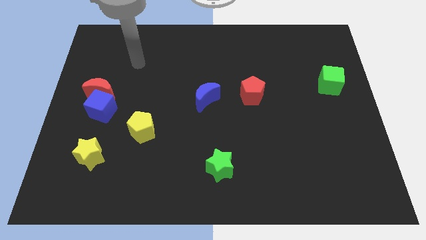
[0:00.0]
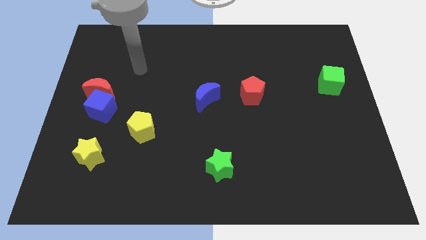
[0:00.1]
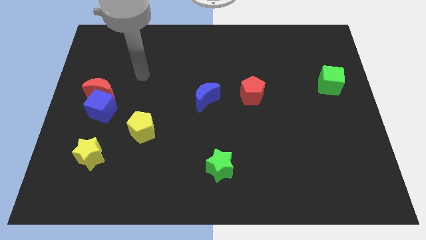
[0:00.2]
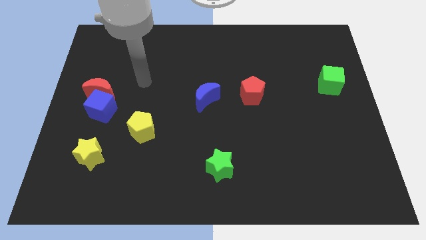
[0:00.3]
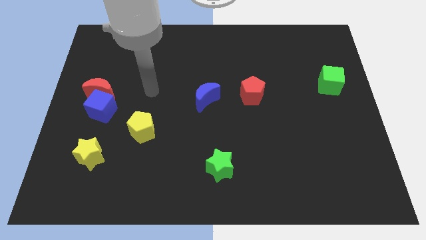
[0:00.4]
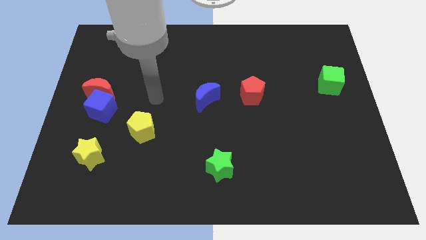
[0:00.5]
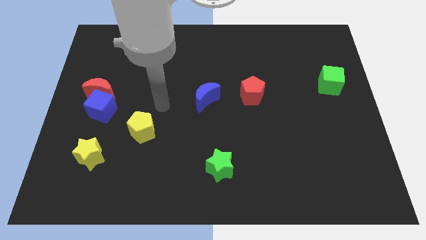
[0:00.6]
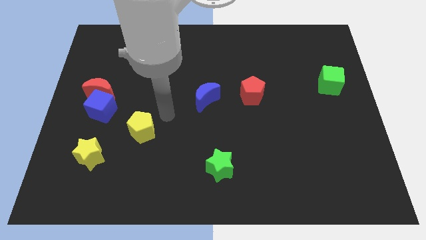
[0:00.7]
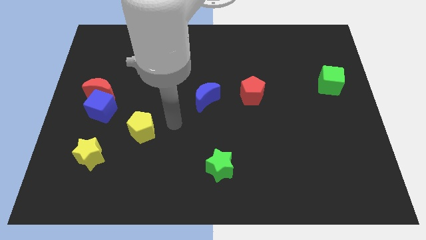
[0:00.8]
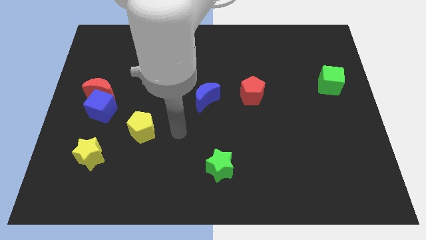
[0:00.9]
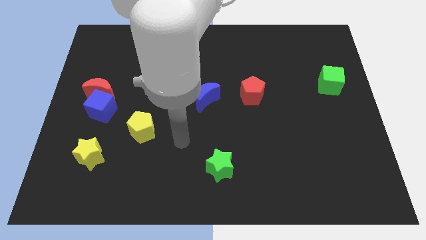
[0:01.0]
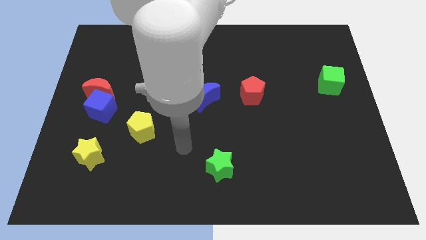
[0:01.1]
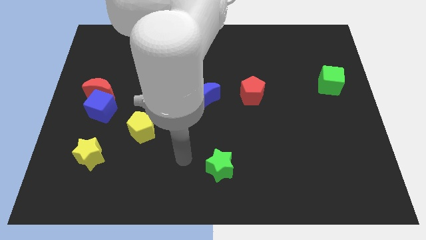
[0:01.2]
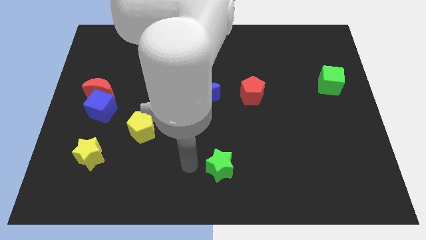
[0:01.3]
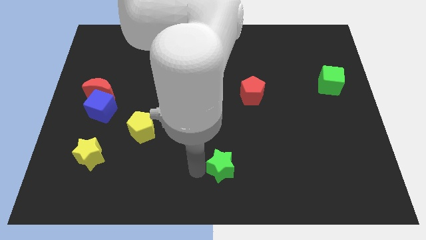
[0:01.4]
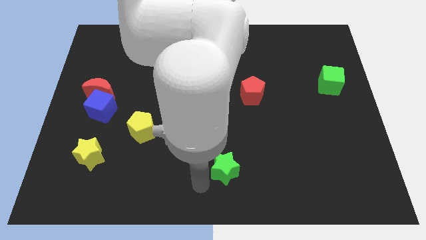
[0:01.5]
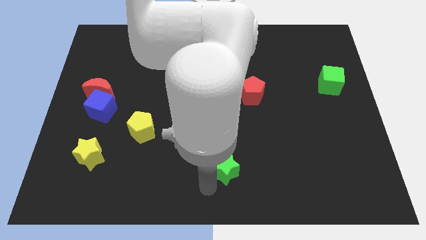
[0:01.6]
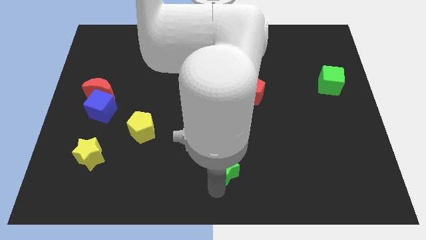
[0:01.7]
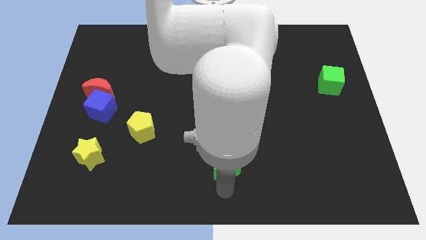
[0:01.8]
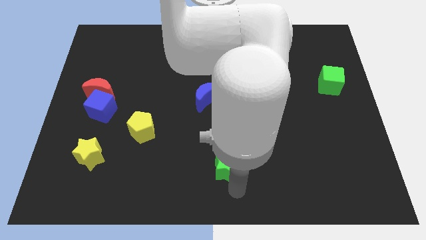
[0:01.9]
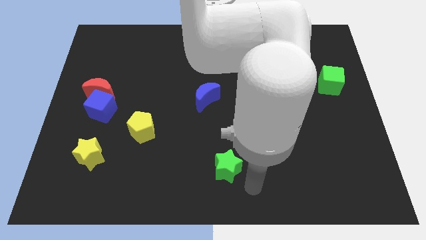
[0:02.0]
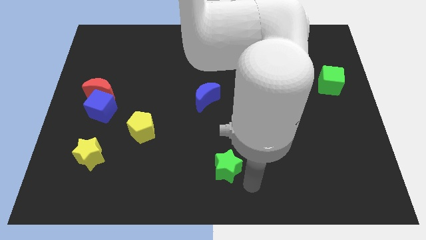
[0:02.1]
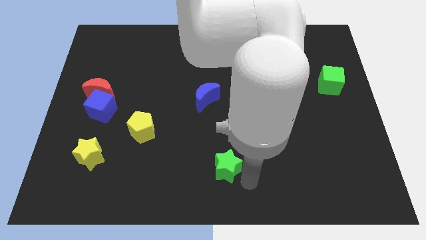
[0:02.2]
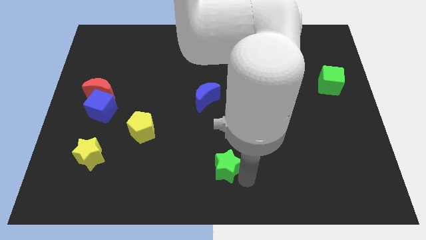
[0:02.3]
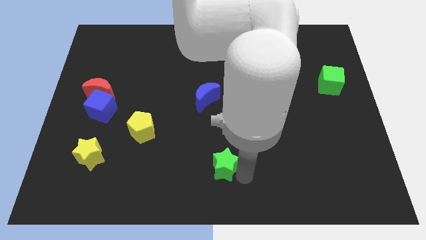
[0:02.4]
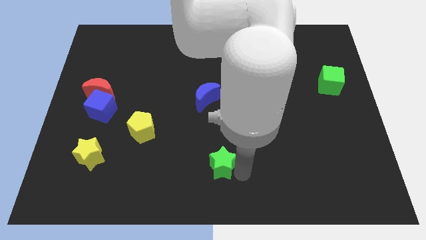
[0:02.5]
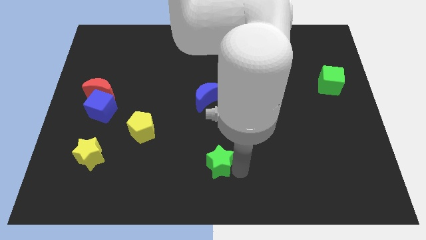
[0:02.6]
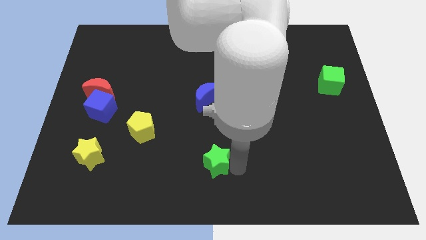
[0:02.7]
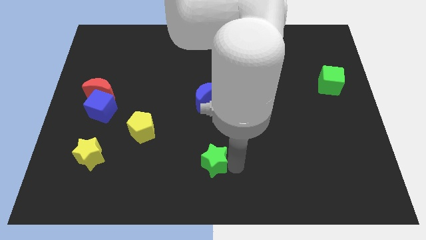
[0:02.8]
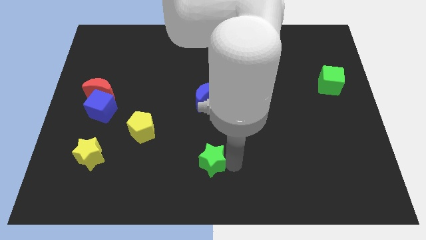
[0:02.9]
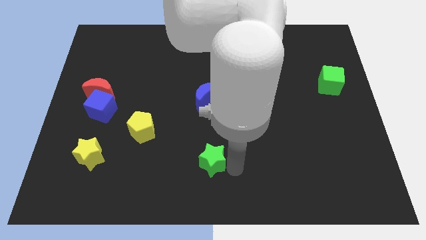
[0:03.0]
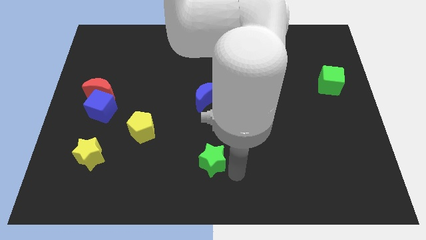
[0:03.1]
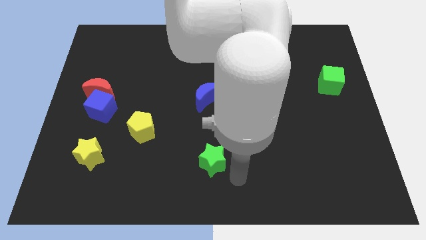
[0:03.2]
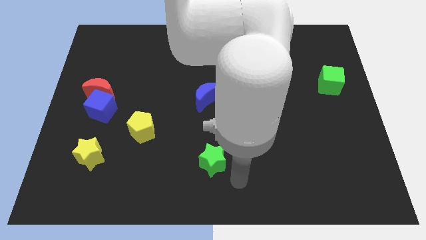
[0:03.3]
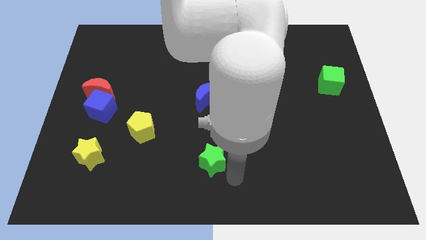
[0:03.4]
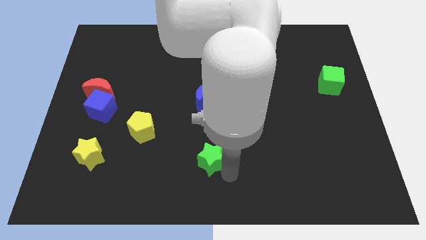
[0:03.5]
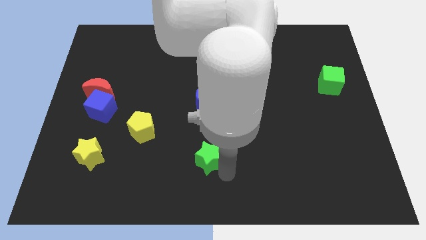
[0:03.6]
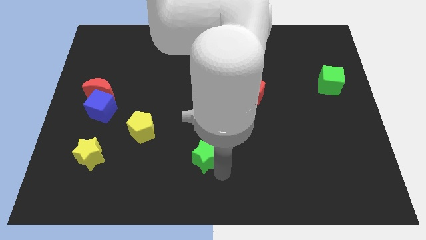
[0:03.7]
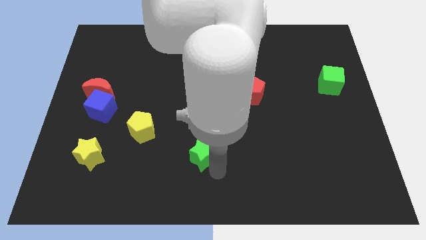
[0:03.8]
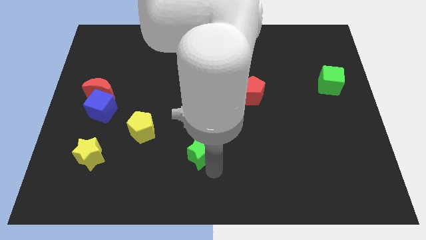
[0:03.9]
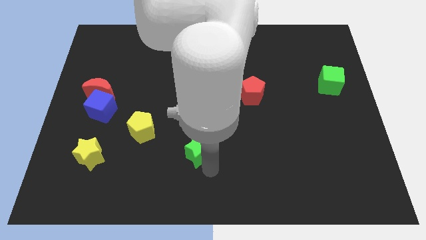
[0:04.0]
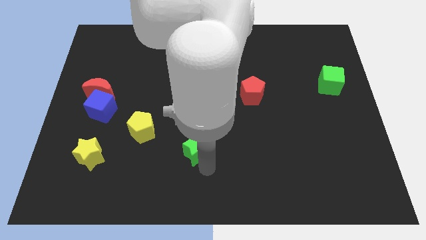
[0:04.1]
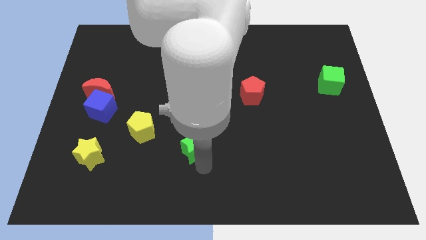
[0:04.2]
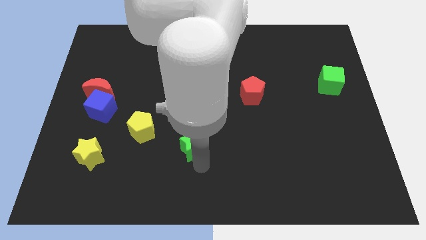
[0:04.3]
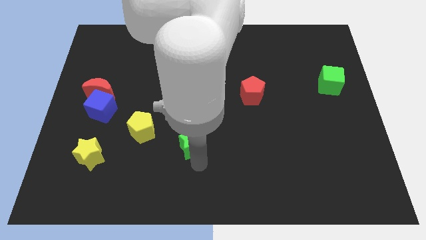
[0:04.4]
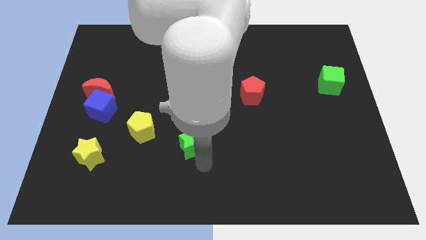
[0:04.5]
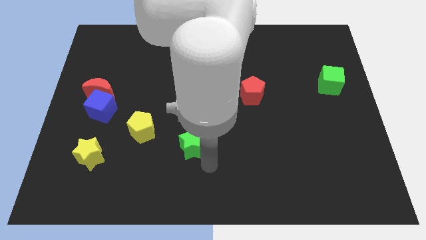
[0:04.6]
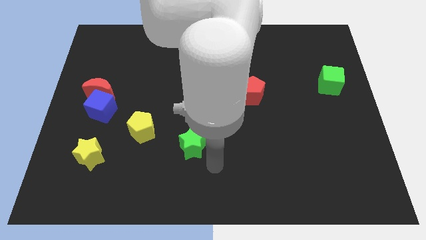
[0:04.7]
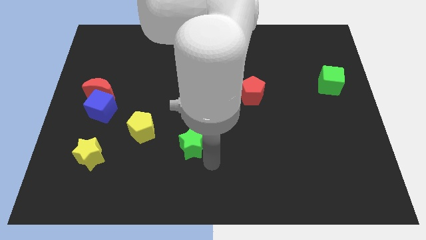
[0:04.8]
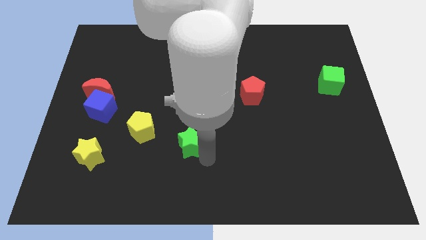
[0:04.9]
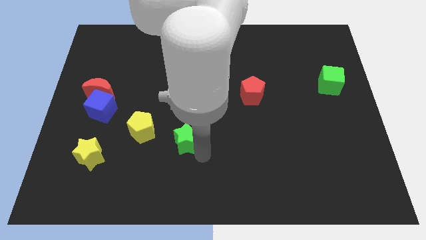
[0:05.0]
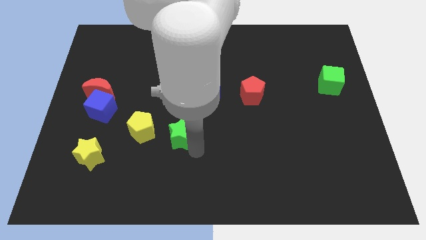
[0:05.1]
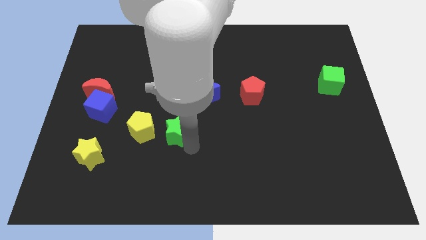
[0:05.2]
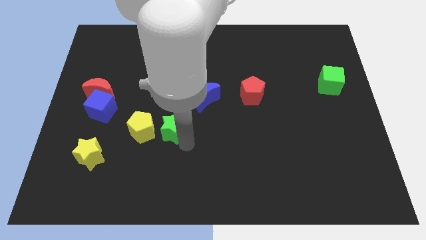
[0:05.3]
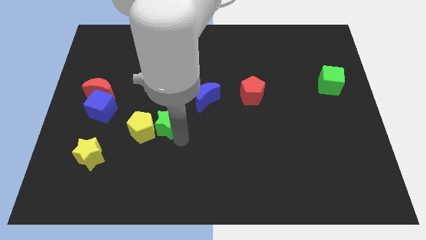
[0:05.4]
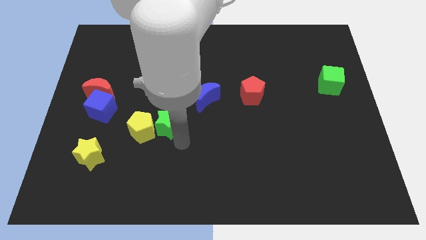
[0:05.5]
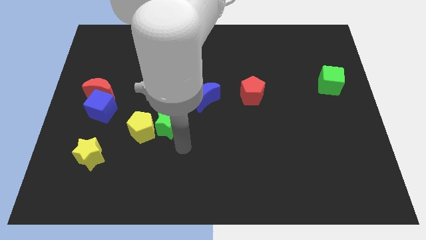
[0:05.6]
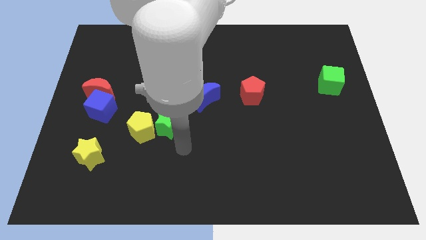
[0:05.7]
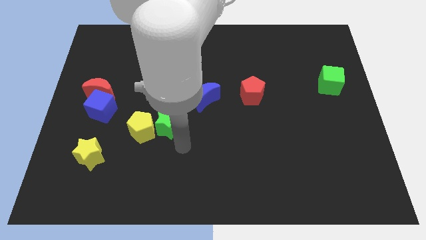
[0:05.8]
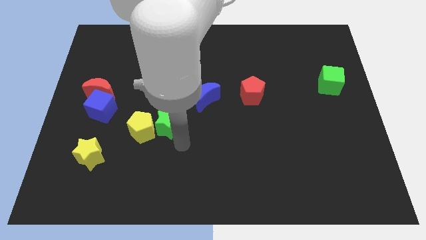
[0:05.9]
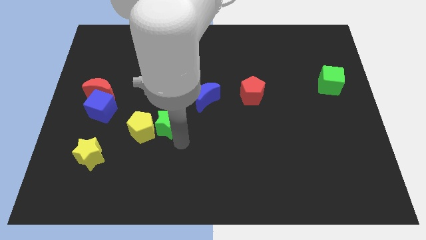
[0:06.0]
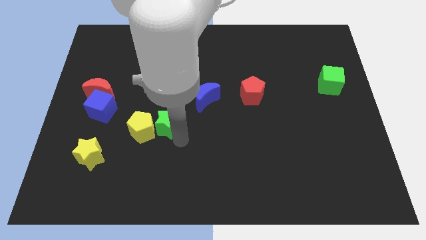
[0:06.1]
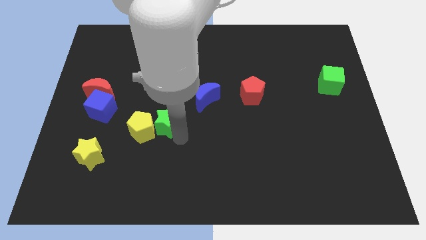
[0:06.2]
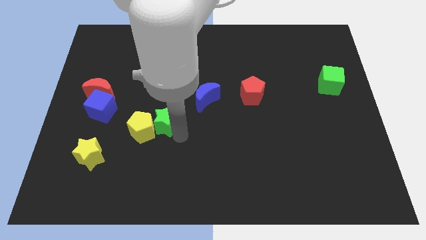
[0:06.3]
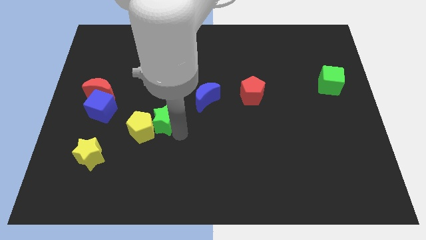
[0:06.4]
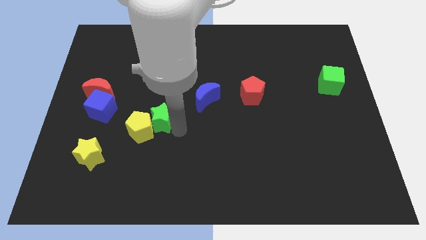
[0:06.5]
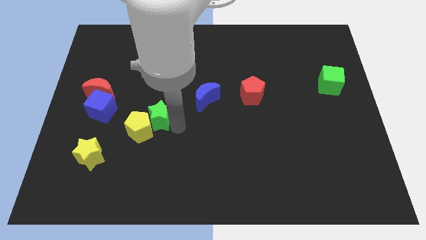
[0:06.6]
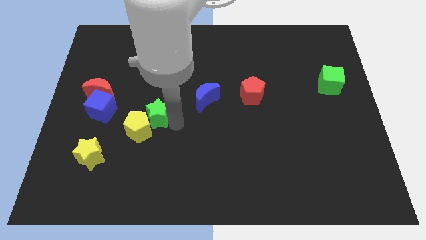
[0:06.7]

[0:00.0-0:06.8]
move the green star to the top side of the yellow pentagon

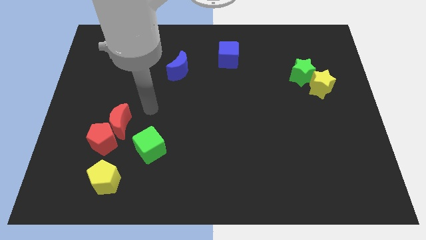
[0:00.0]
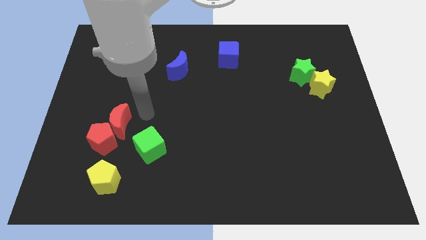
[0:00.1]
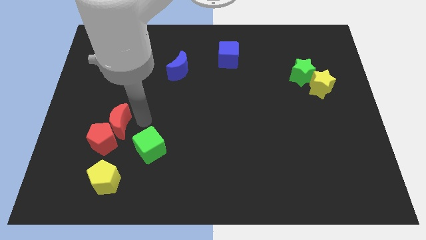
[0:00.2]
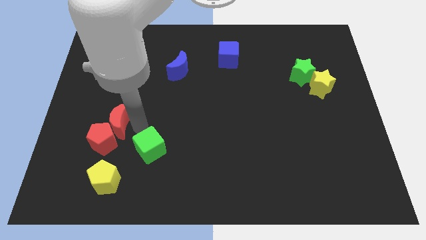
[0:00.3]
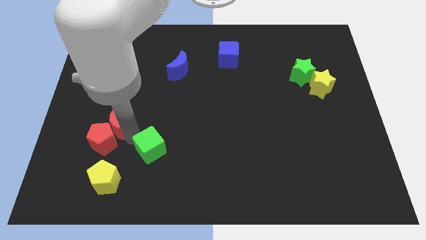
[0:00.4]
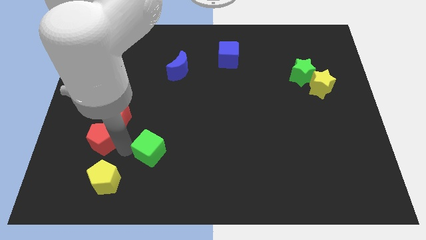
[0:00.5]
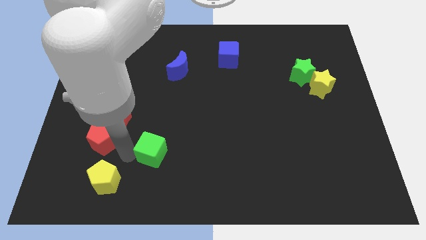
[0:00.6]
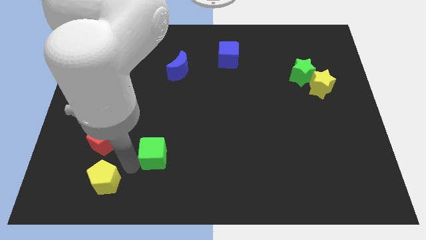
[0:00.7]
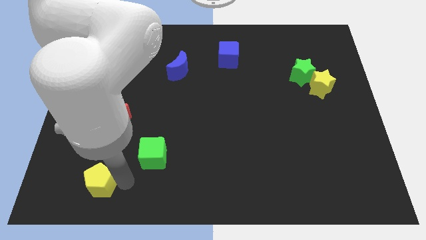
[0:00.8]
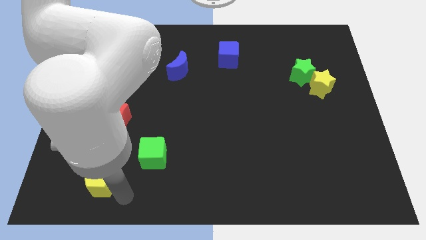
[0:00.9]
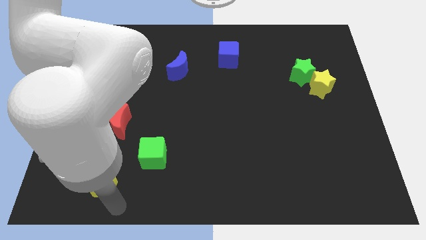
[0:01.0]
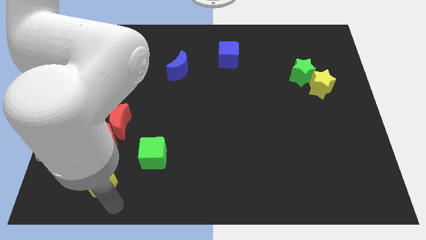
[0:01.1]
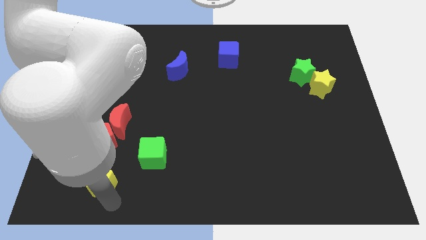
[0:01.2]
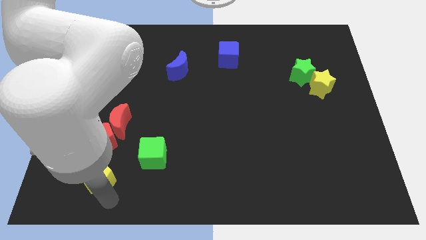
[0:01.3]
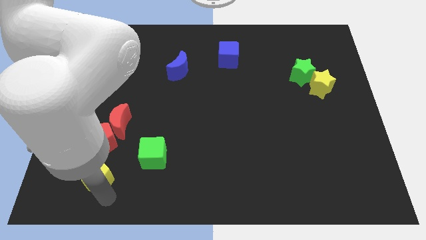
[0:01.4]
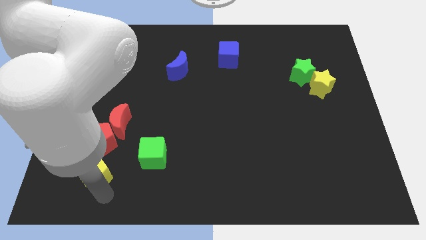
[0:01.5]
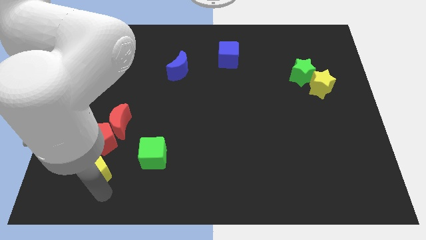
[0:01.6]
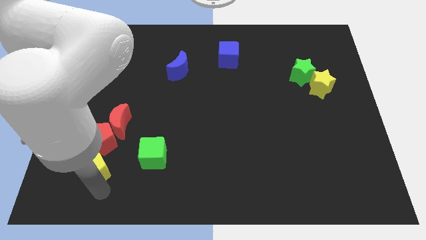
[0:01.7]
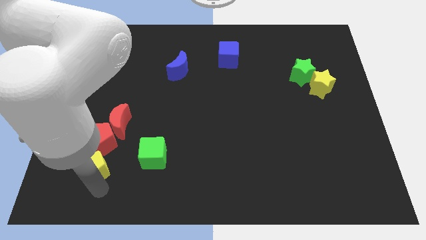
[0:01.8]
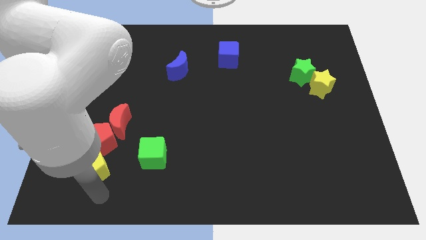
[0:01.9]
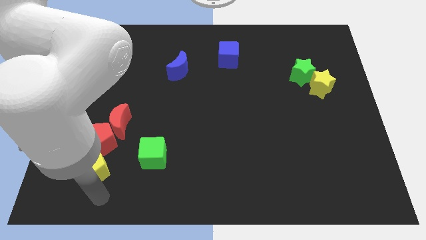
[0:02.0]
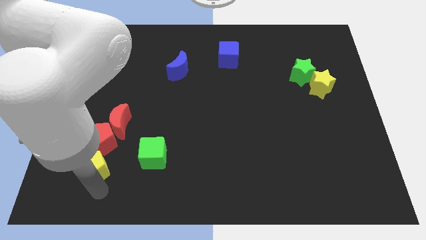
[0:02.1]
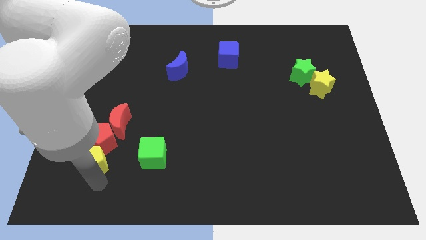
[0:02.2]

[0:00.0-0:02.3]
move the yellow pentagon to the bottom left side of the red moon
